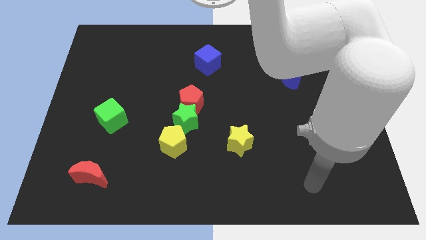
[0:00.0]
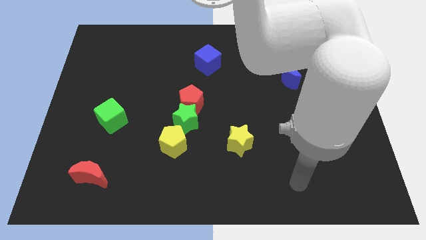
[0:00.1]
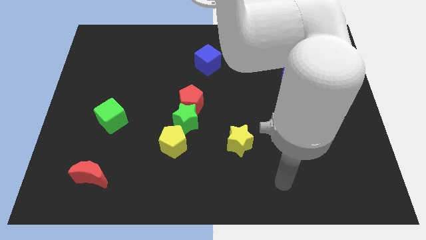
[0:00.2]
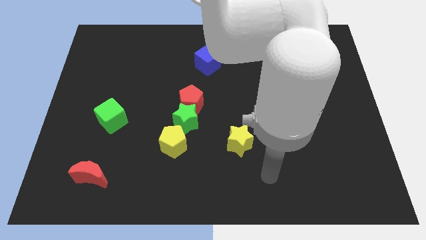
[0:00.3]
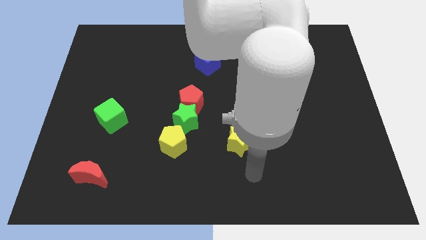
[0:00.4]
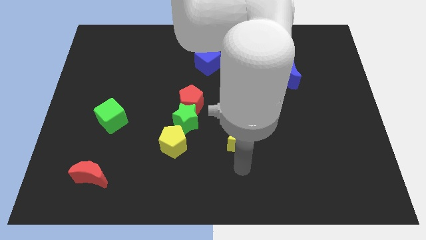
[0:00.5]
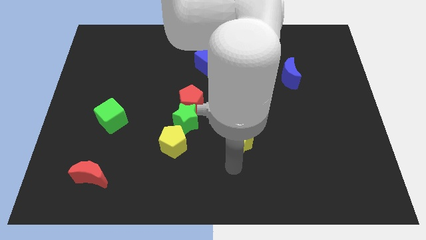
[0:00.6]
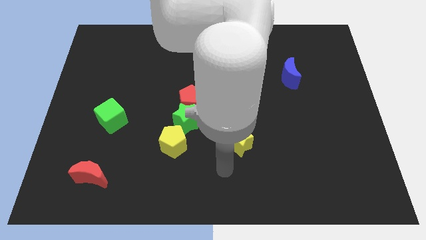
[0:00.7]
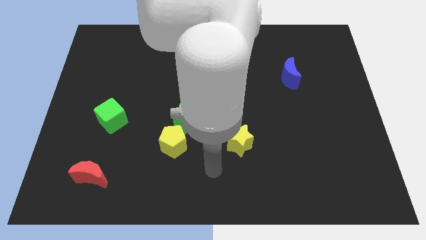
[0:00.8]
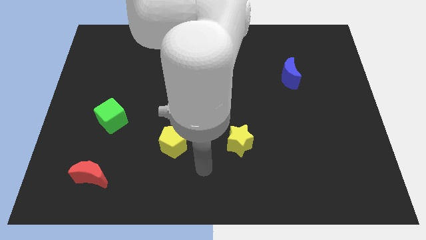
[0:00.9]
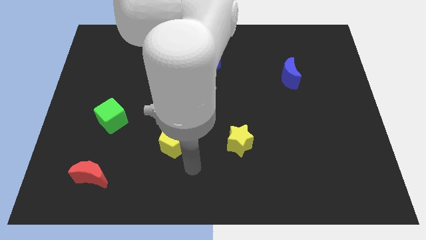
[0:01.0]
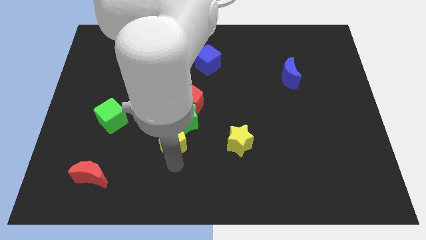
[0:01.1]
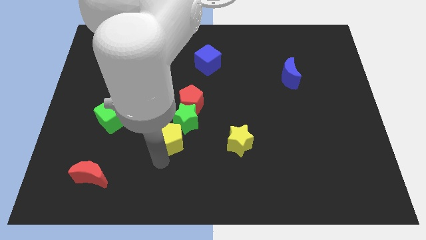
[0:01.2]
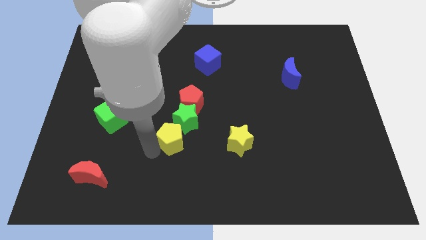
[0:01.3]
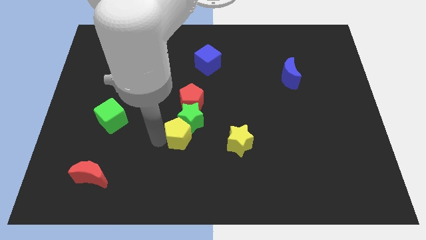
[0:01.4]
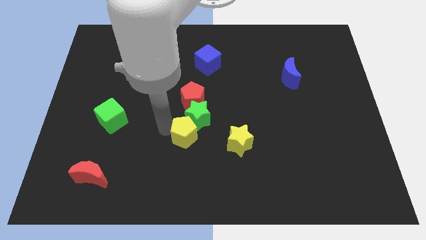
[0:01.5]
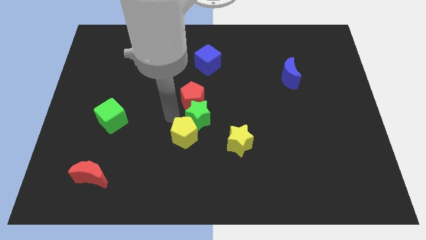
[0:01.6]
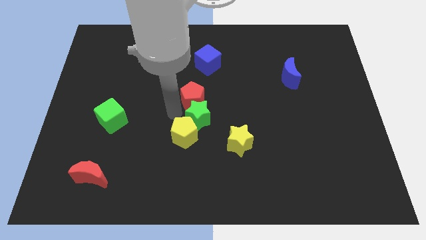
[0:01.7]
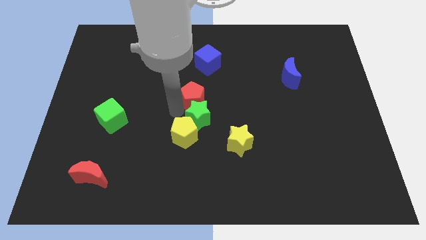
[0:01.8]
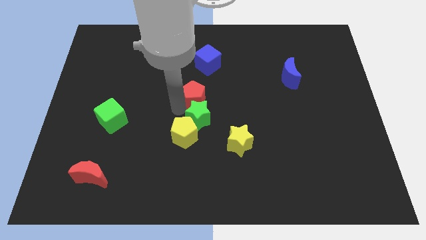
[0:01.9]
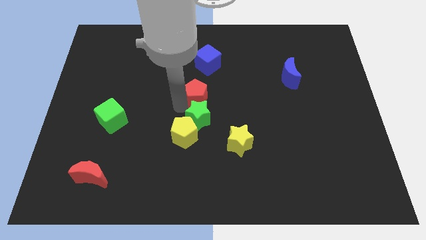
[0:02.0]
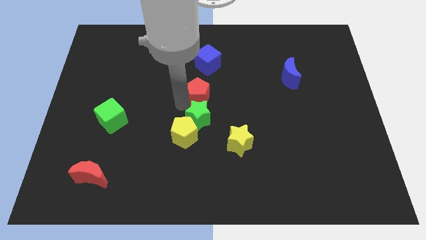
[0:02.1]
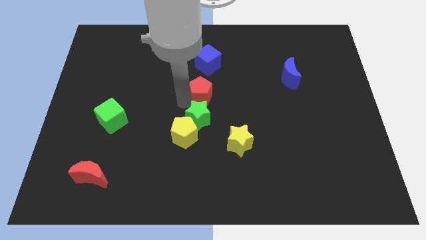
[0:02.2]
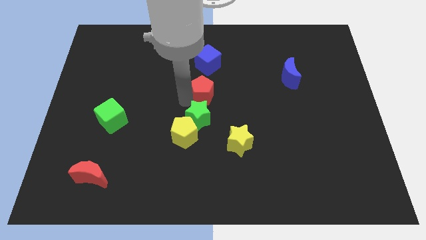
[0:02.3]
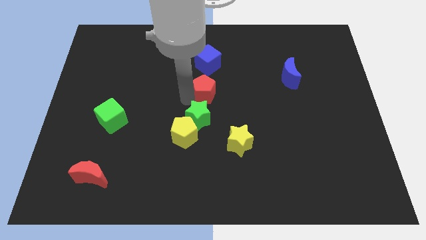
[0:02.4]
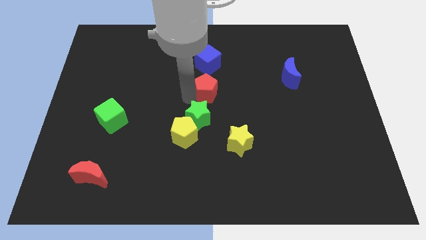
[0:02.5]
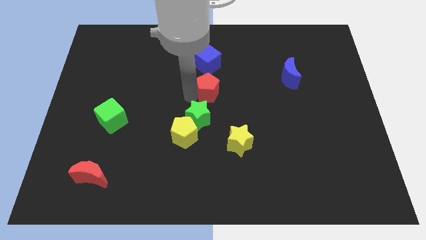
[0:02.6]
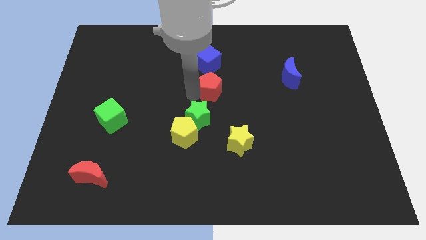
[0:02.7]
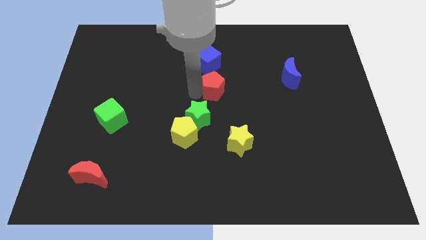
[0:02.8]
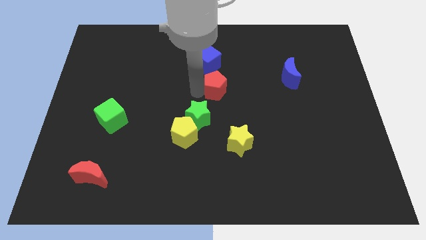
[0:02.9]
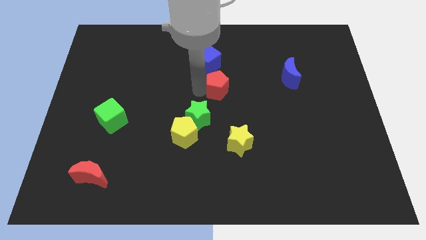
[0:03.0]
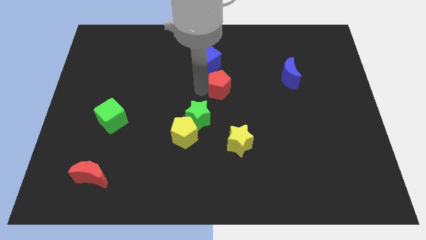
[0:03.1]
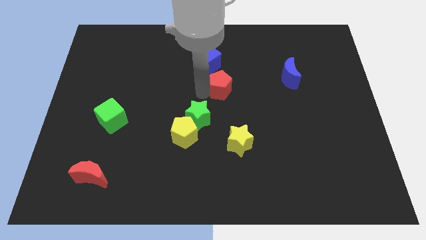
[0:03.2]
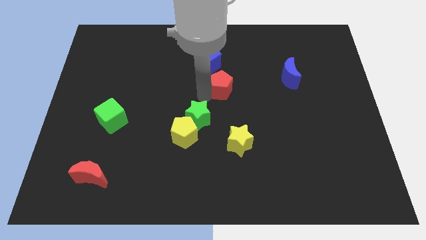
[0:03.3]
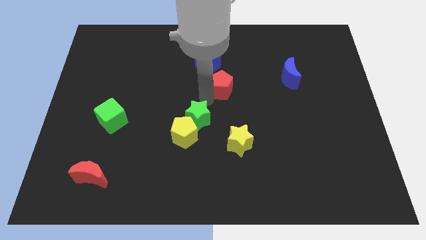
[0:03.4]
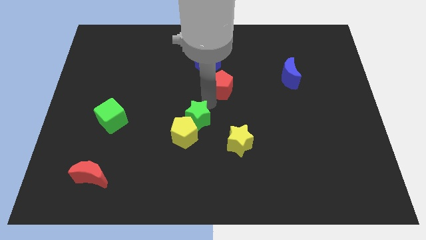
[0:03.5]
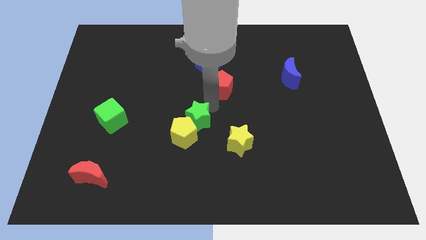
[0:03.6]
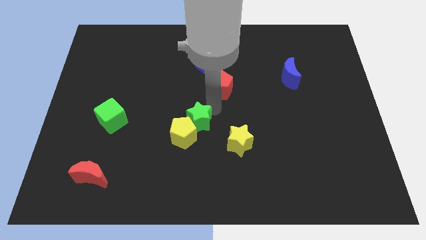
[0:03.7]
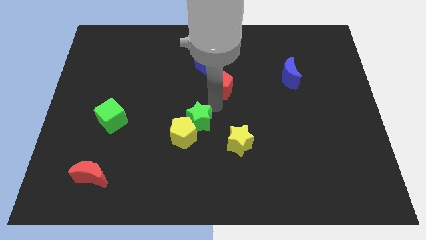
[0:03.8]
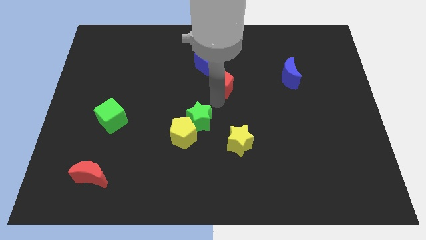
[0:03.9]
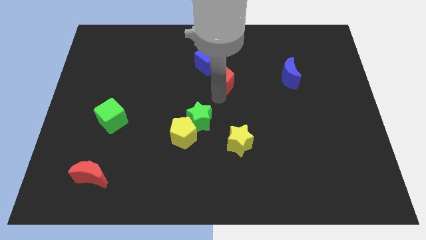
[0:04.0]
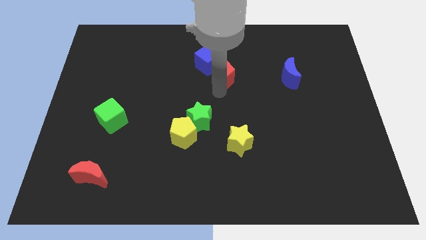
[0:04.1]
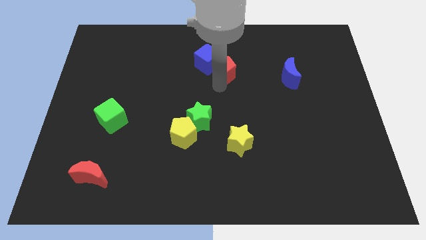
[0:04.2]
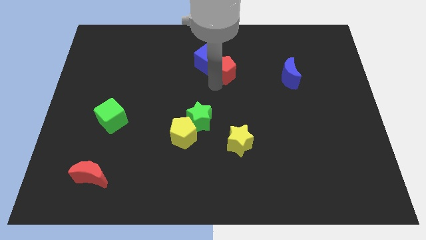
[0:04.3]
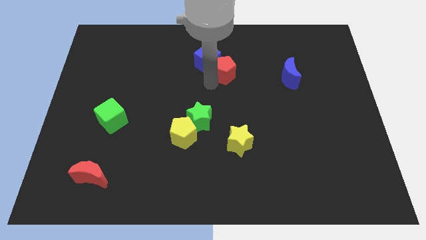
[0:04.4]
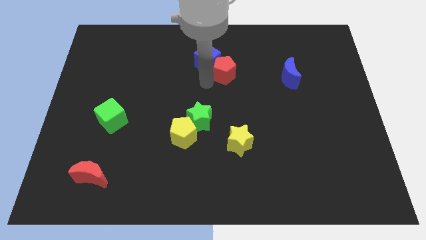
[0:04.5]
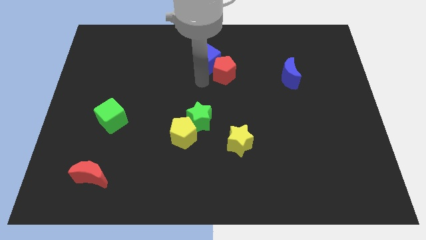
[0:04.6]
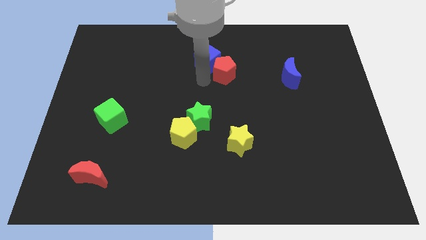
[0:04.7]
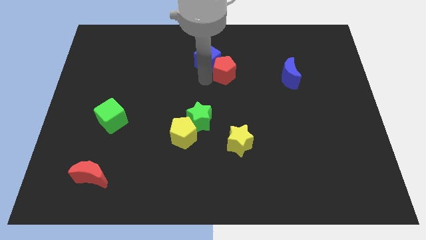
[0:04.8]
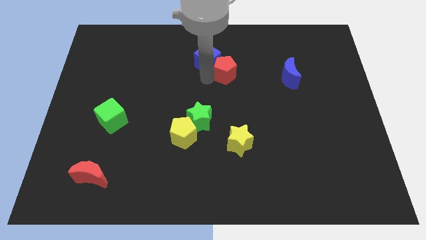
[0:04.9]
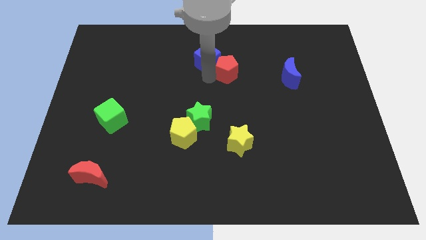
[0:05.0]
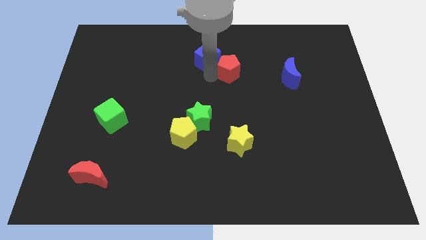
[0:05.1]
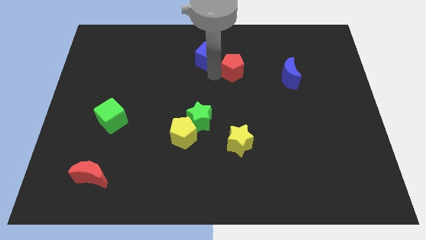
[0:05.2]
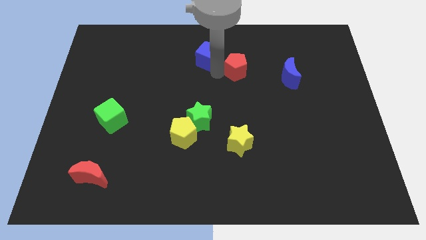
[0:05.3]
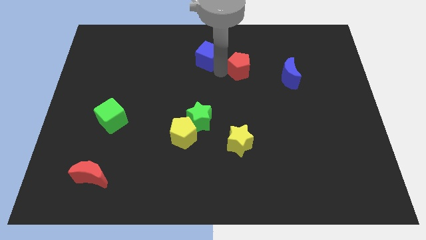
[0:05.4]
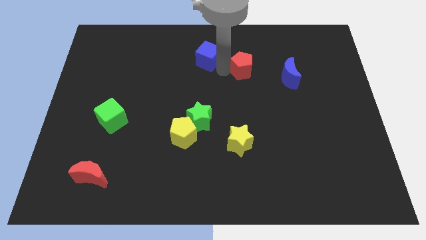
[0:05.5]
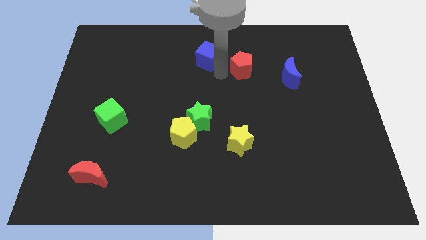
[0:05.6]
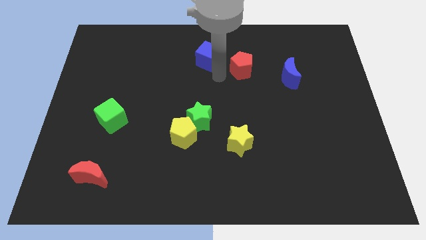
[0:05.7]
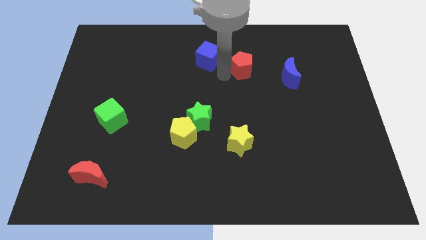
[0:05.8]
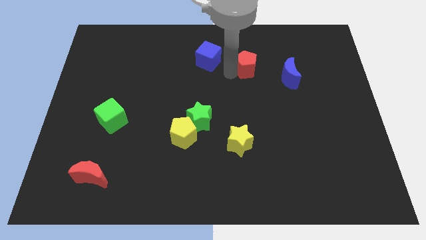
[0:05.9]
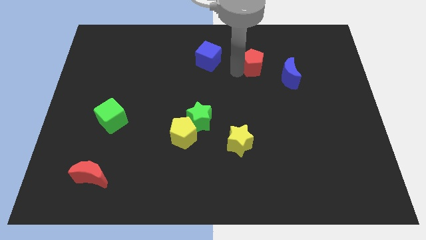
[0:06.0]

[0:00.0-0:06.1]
push the red pentagon diagonally up and to the left of the blue moon

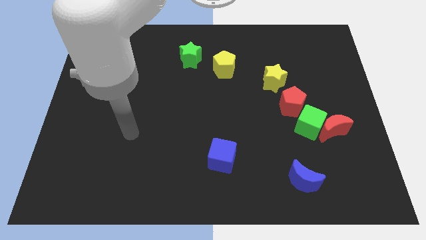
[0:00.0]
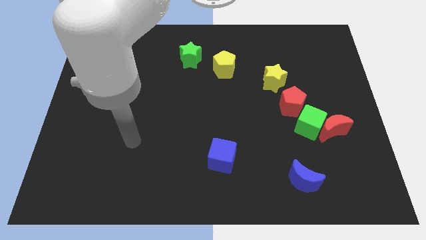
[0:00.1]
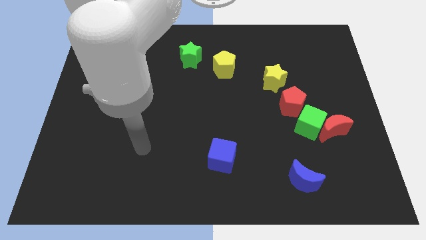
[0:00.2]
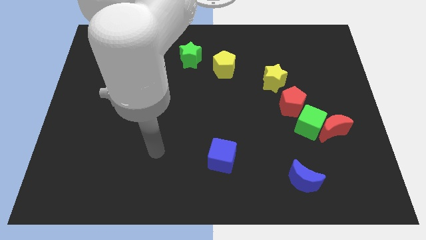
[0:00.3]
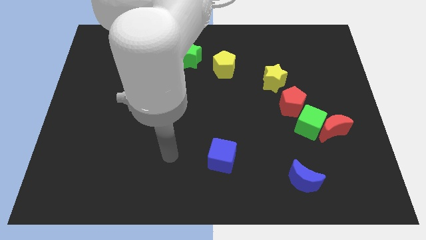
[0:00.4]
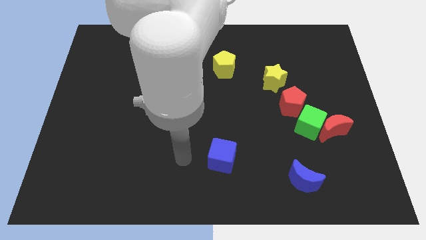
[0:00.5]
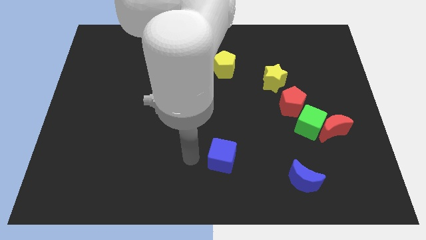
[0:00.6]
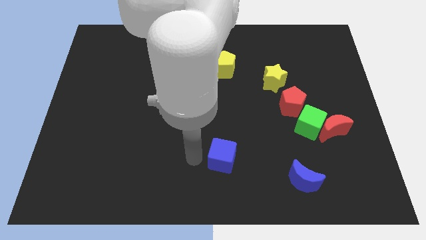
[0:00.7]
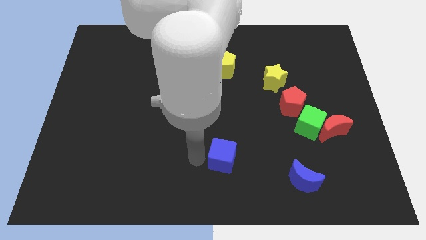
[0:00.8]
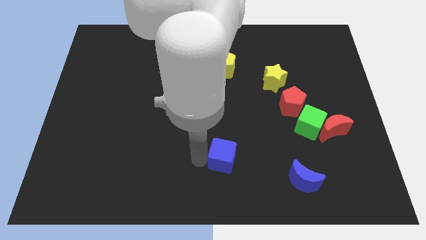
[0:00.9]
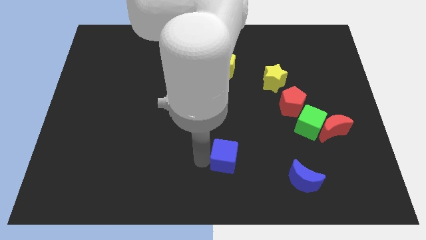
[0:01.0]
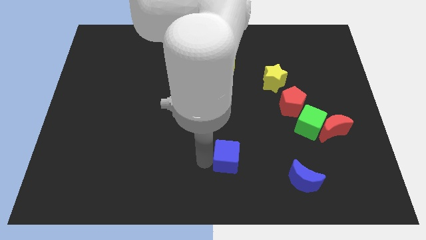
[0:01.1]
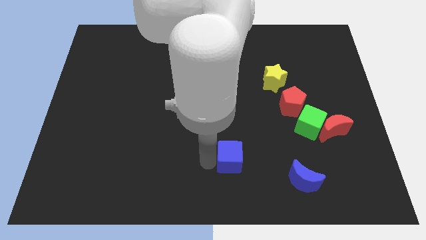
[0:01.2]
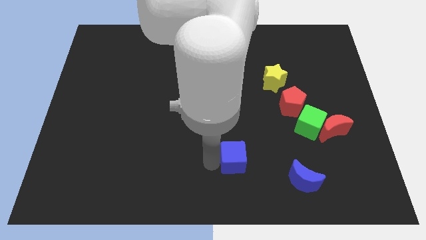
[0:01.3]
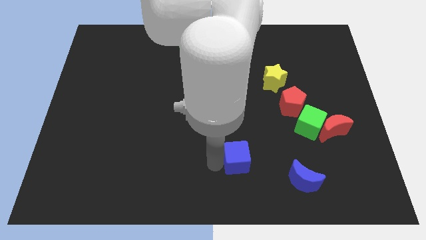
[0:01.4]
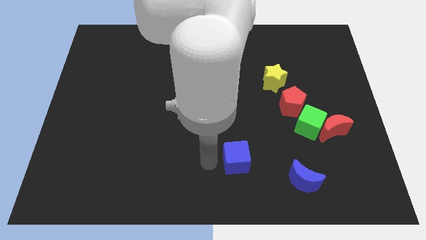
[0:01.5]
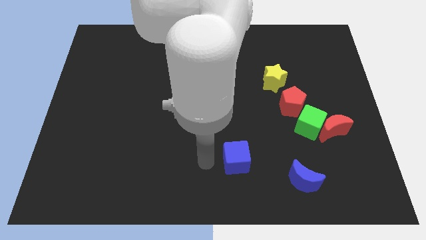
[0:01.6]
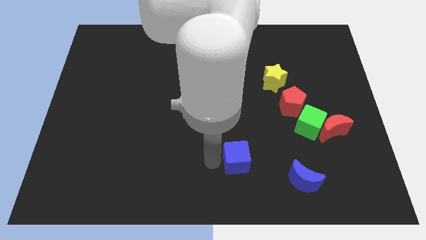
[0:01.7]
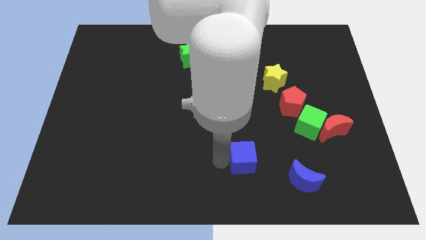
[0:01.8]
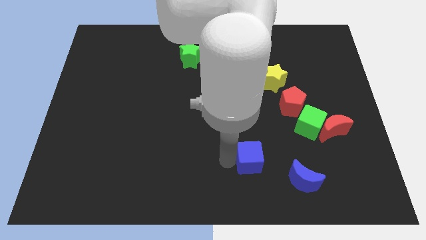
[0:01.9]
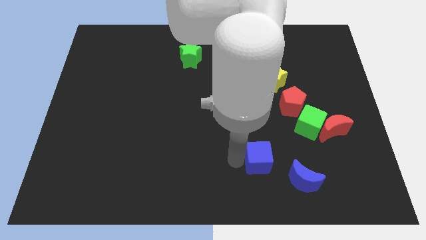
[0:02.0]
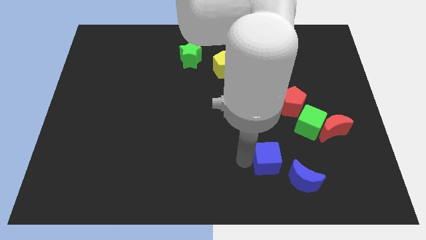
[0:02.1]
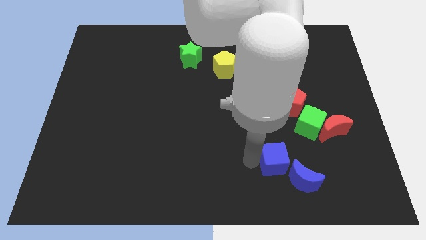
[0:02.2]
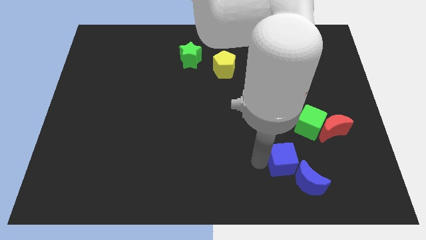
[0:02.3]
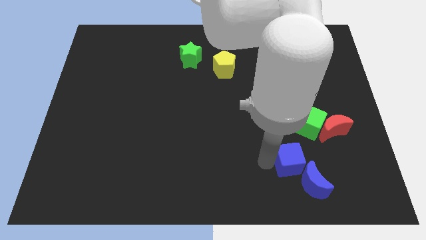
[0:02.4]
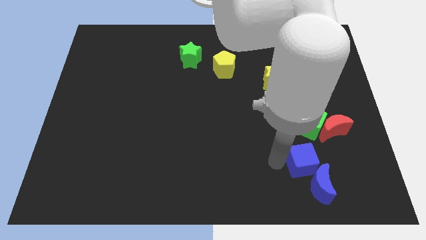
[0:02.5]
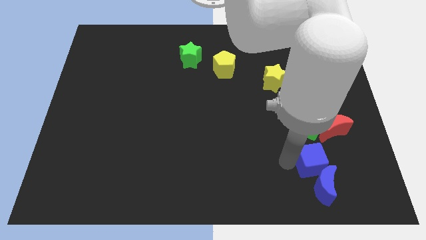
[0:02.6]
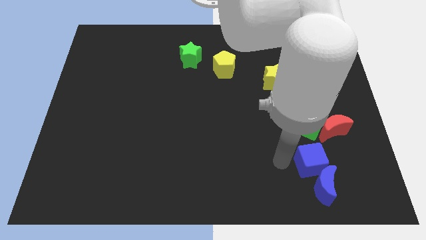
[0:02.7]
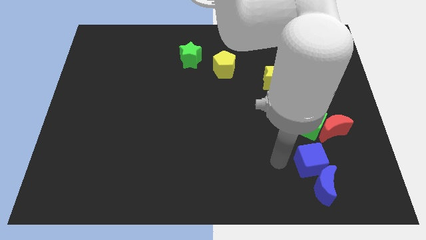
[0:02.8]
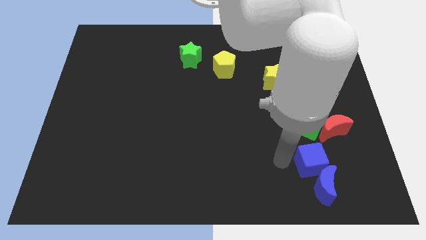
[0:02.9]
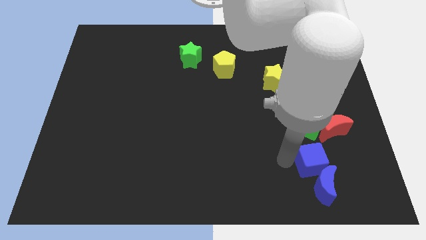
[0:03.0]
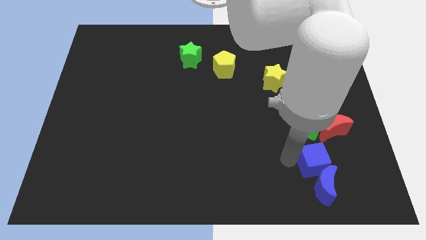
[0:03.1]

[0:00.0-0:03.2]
slide the blue cube to the top right of the blue moon
